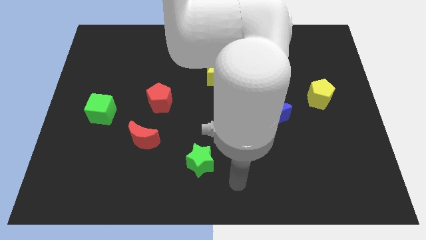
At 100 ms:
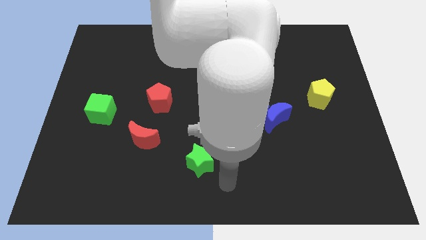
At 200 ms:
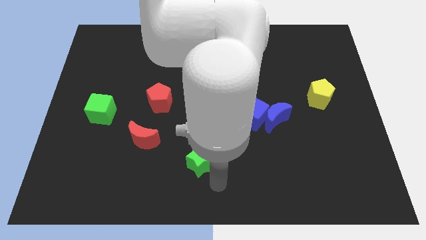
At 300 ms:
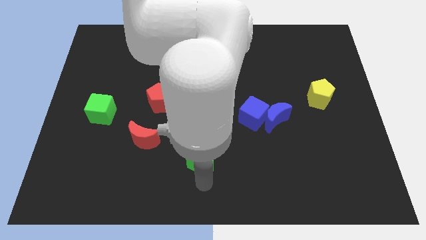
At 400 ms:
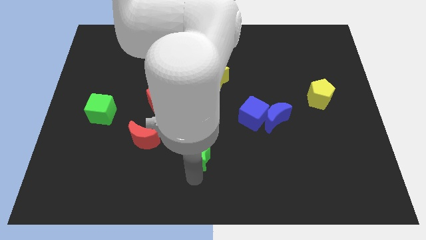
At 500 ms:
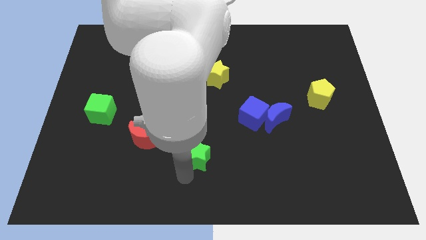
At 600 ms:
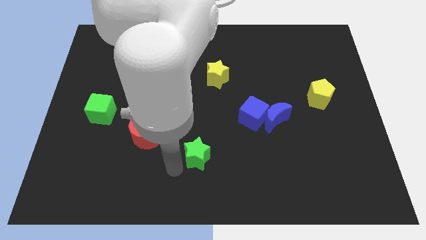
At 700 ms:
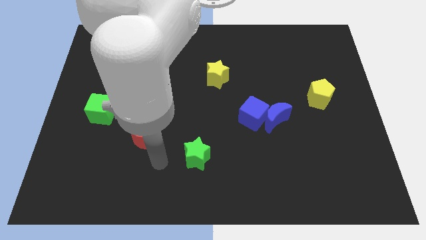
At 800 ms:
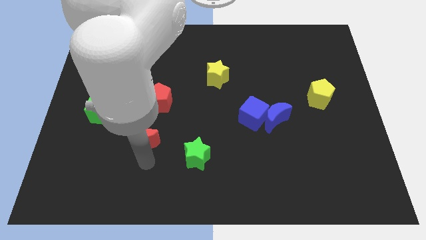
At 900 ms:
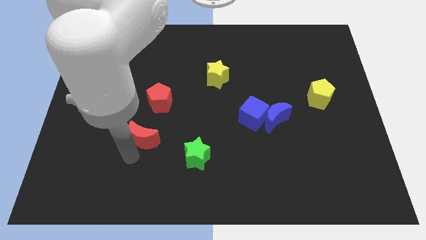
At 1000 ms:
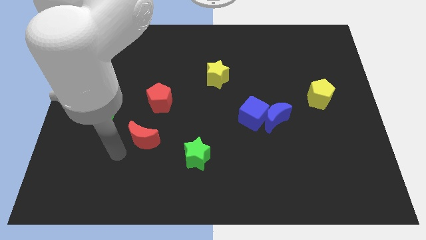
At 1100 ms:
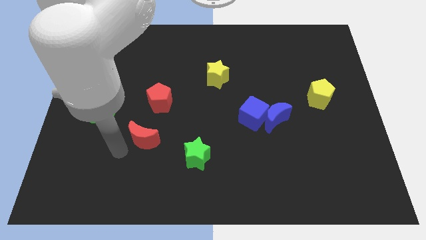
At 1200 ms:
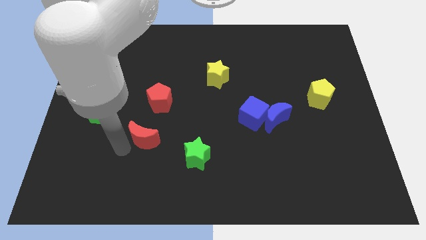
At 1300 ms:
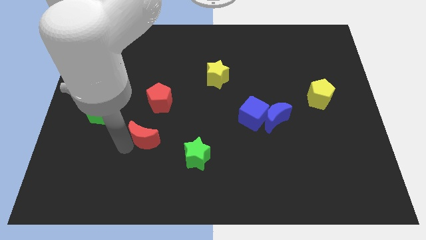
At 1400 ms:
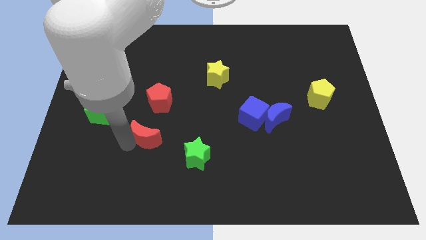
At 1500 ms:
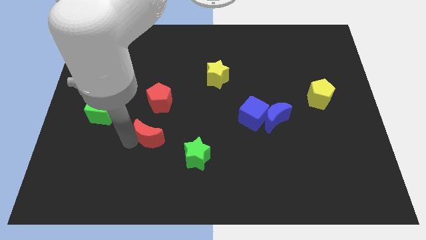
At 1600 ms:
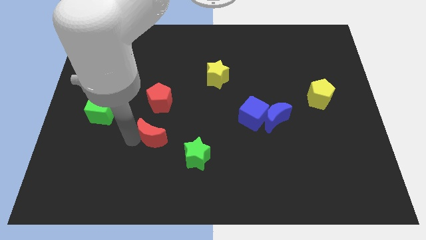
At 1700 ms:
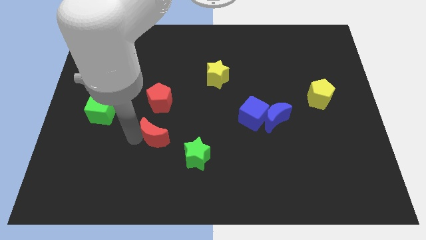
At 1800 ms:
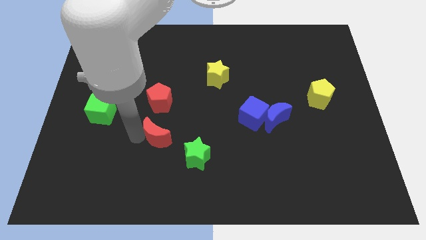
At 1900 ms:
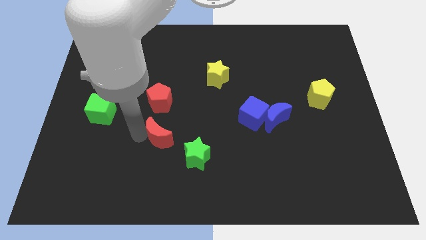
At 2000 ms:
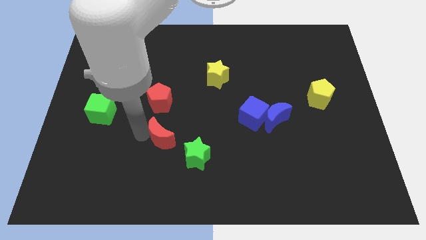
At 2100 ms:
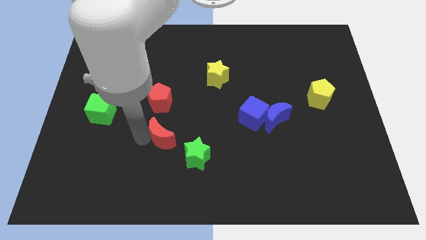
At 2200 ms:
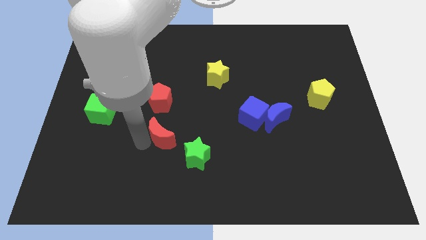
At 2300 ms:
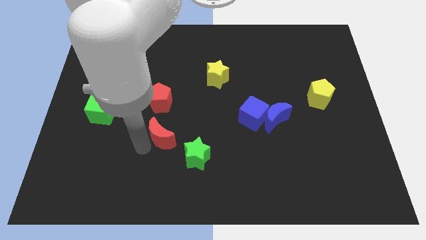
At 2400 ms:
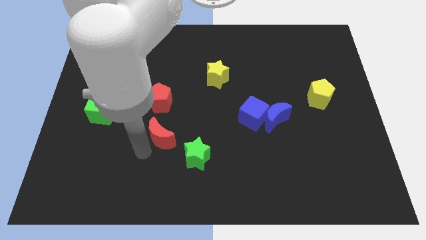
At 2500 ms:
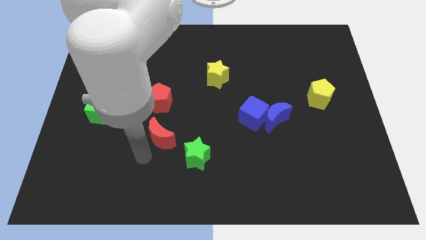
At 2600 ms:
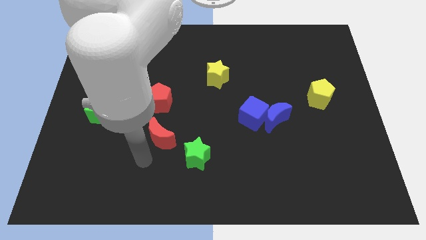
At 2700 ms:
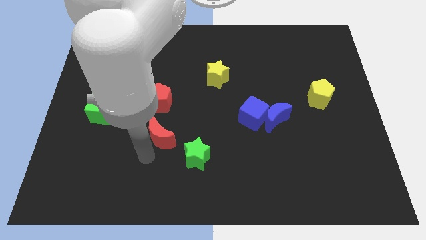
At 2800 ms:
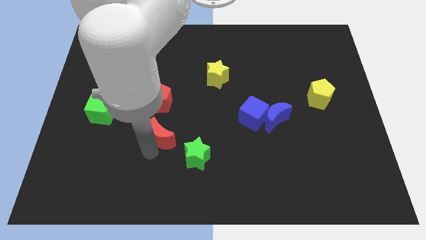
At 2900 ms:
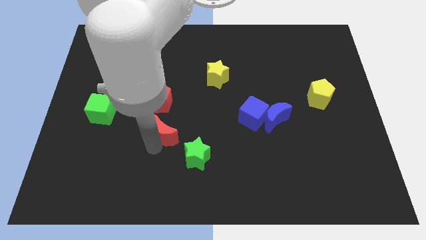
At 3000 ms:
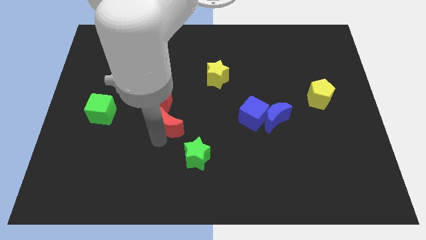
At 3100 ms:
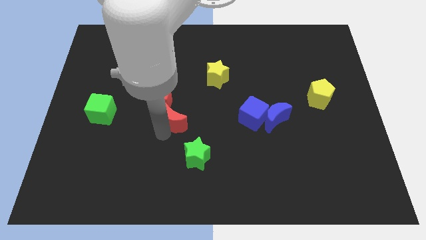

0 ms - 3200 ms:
slightly push the red moon upwards and then right

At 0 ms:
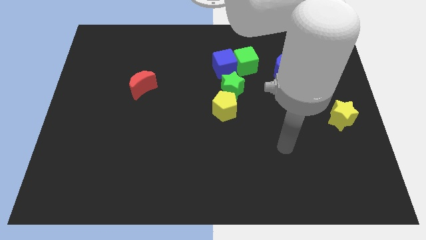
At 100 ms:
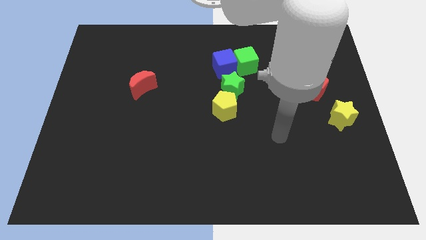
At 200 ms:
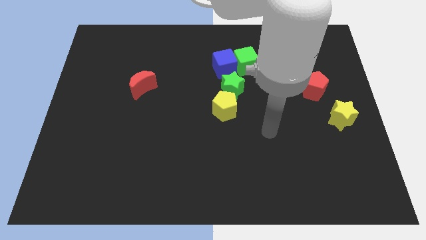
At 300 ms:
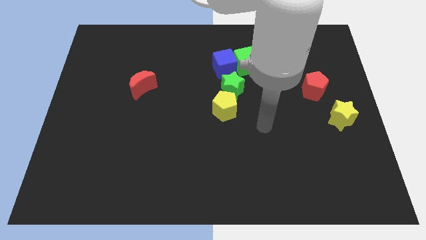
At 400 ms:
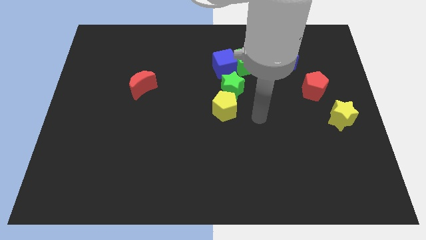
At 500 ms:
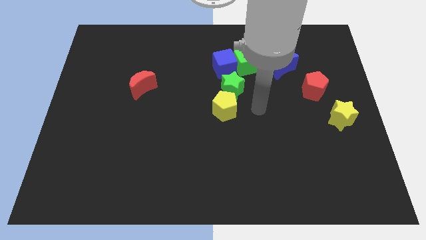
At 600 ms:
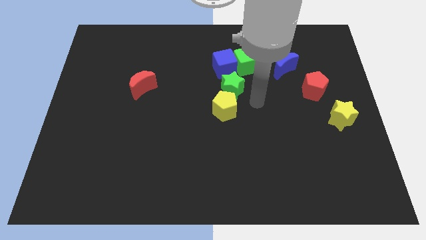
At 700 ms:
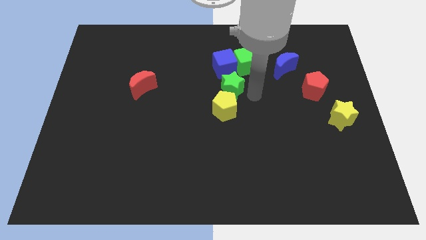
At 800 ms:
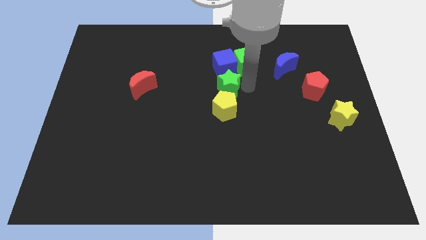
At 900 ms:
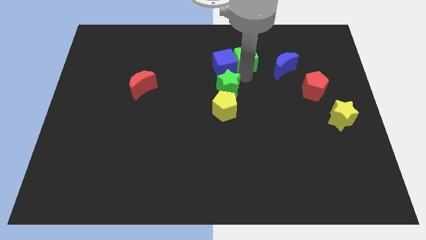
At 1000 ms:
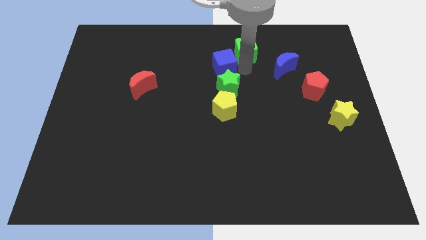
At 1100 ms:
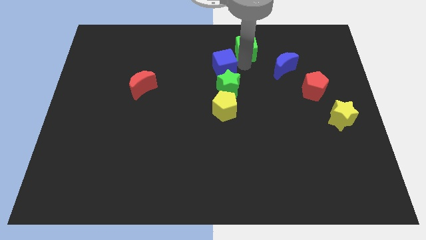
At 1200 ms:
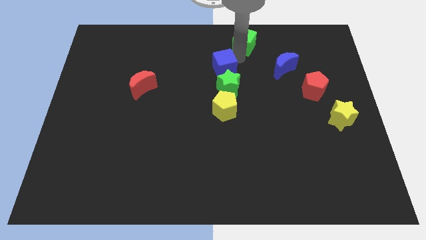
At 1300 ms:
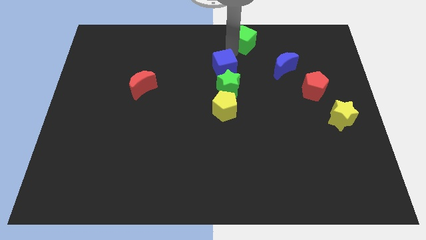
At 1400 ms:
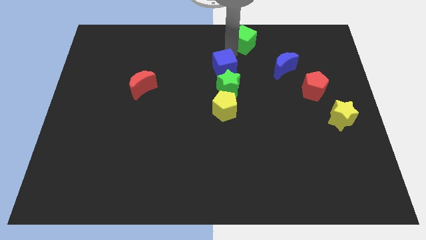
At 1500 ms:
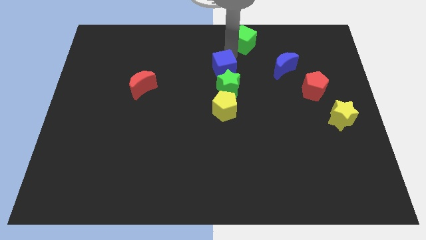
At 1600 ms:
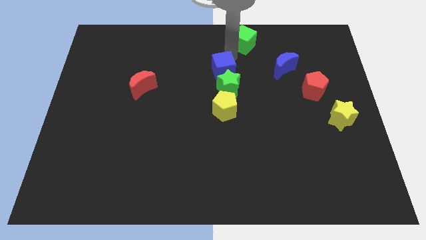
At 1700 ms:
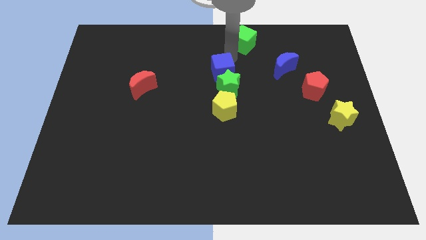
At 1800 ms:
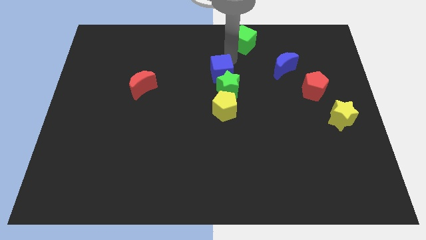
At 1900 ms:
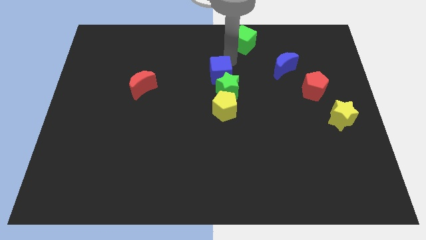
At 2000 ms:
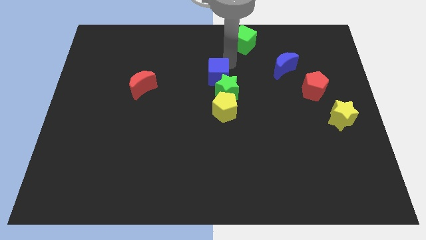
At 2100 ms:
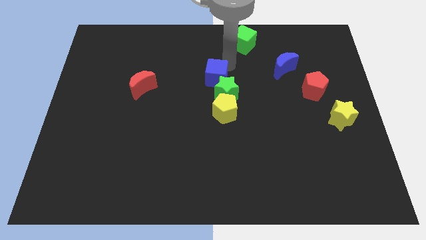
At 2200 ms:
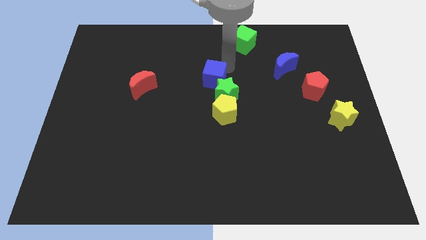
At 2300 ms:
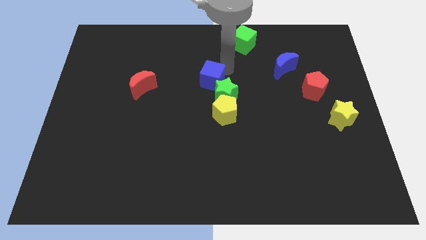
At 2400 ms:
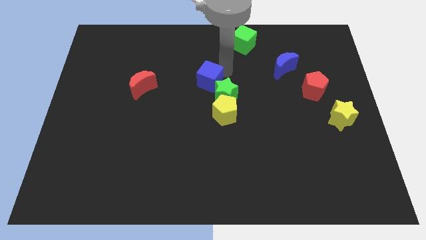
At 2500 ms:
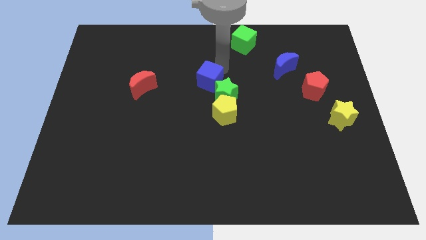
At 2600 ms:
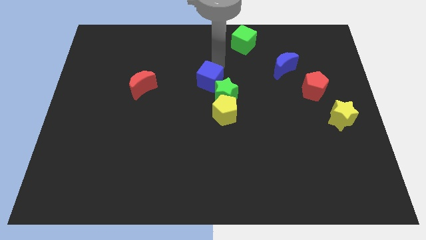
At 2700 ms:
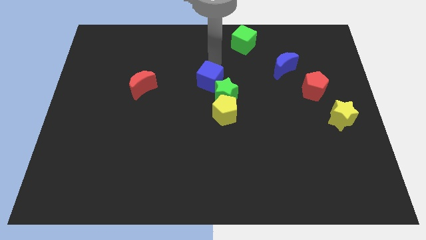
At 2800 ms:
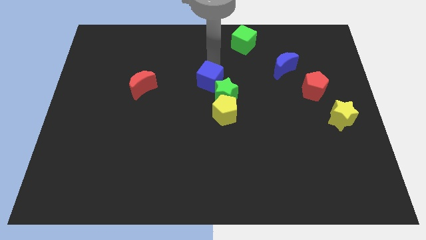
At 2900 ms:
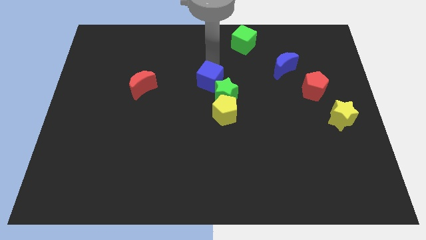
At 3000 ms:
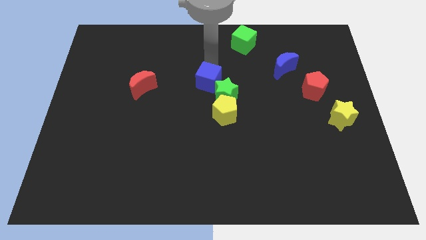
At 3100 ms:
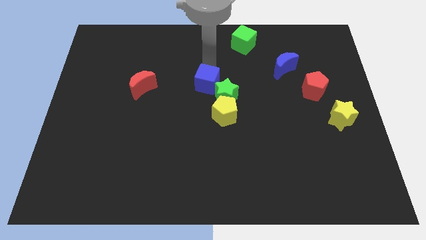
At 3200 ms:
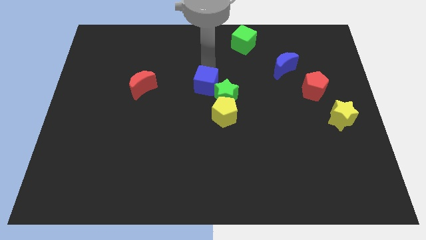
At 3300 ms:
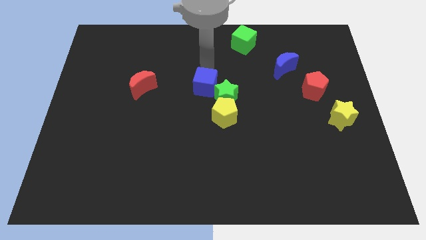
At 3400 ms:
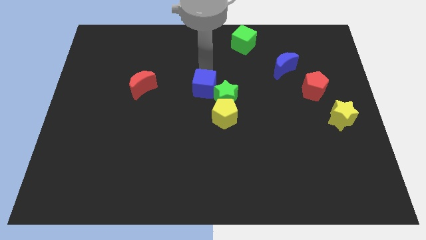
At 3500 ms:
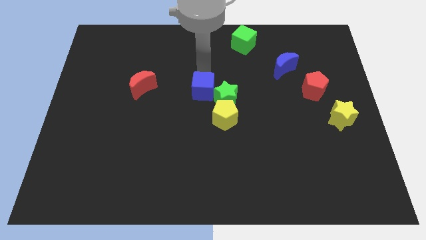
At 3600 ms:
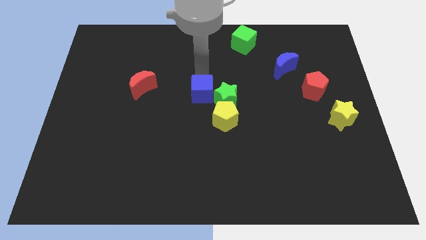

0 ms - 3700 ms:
push the blue cube downwards somewhat

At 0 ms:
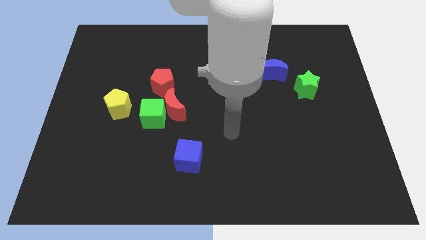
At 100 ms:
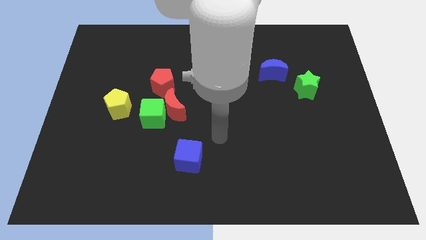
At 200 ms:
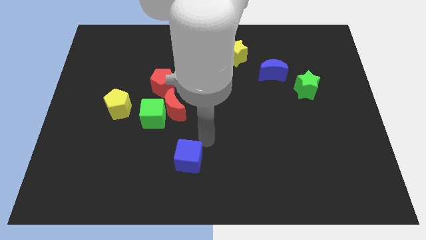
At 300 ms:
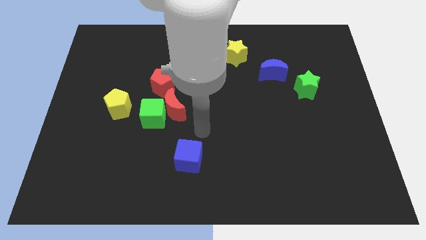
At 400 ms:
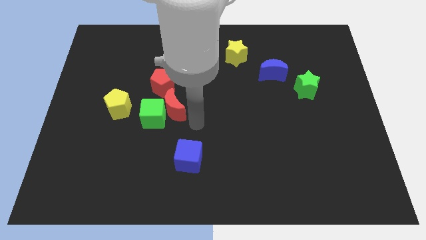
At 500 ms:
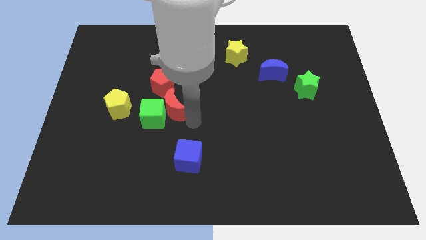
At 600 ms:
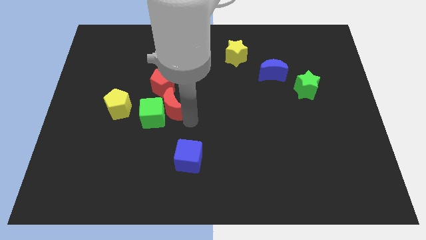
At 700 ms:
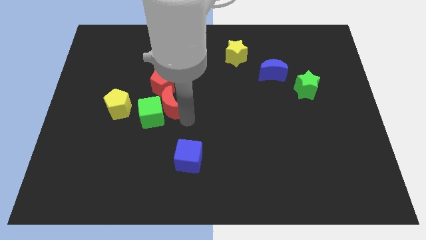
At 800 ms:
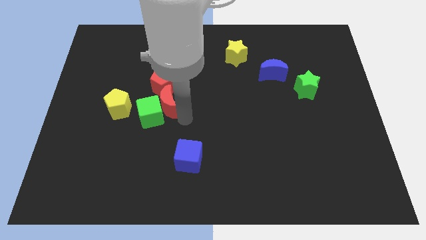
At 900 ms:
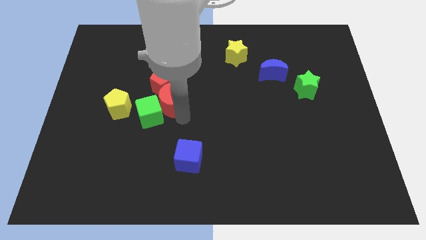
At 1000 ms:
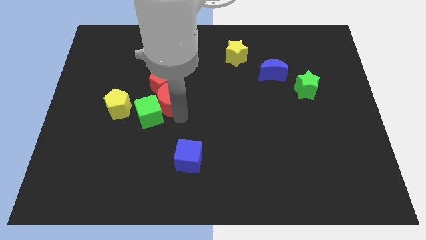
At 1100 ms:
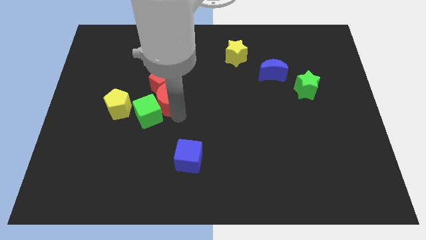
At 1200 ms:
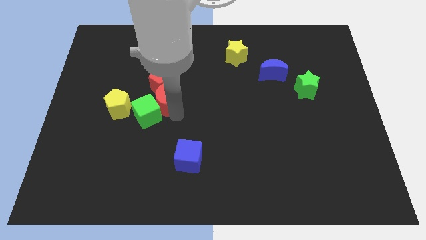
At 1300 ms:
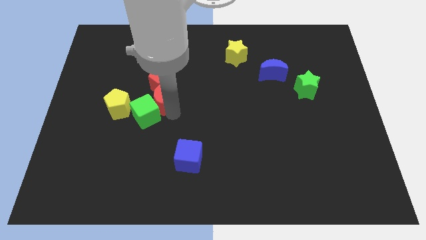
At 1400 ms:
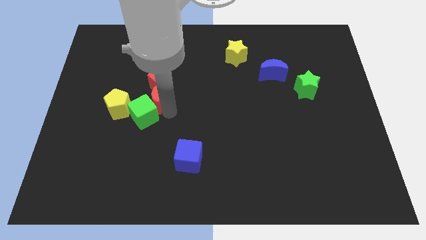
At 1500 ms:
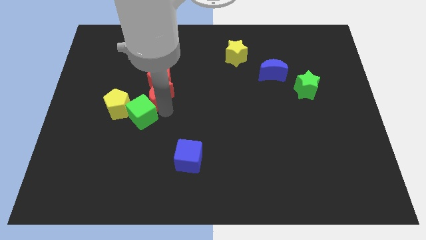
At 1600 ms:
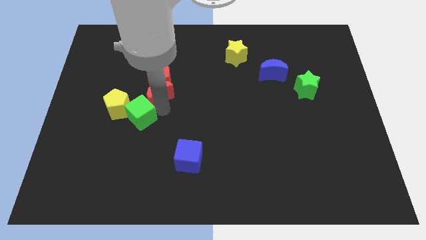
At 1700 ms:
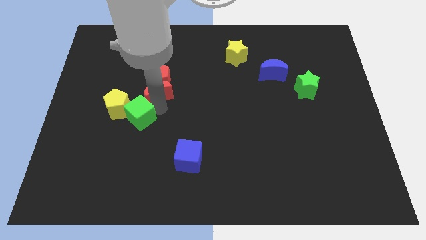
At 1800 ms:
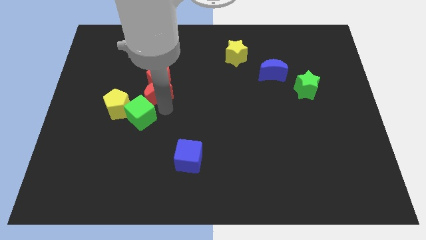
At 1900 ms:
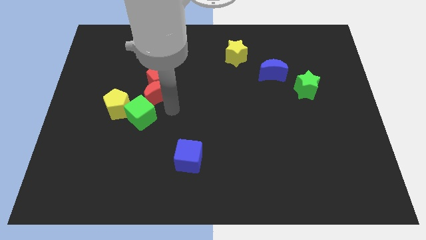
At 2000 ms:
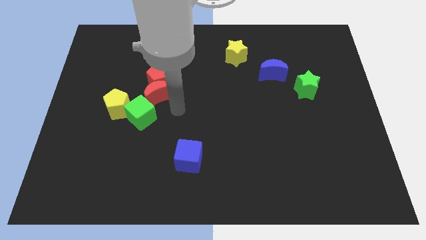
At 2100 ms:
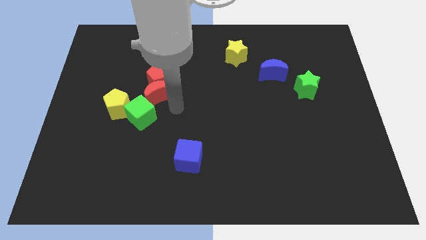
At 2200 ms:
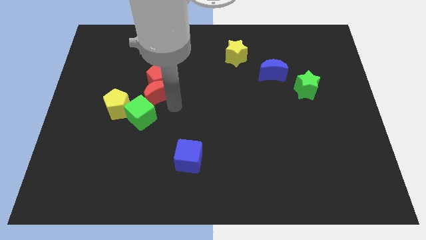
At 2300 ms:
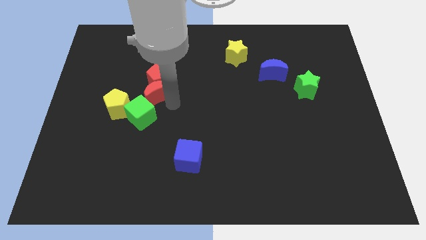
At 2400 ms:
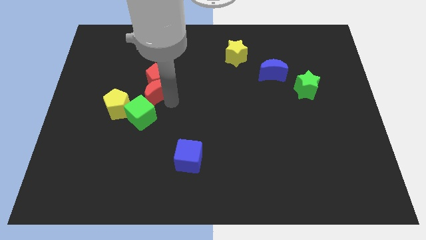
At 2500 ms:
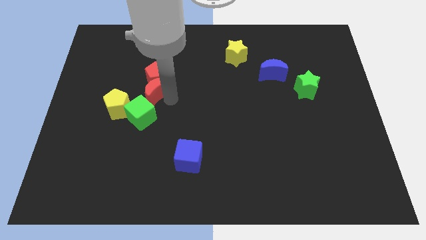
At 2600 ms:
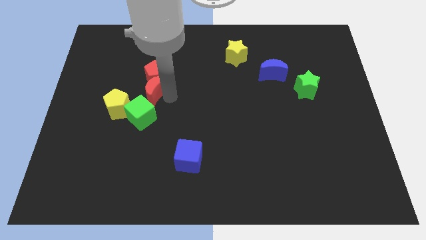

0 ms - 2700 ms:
slightly move the red moon upwards and to the left diagonally
